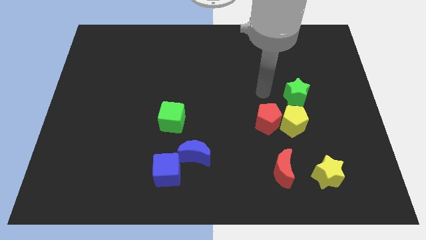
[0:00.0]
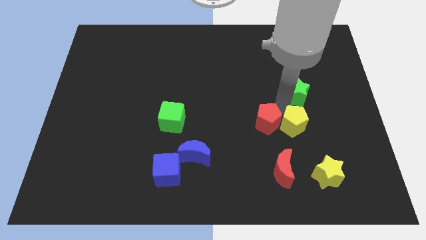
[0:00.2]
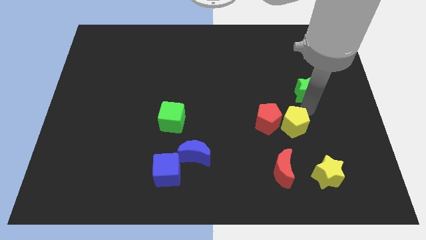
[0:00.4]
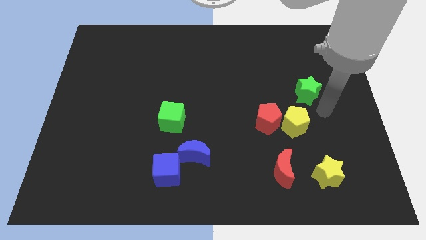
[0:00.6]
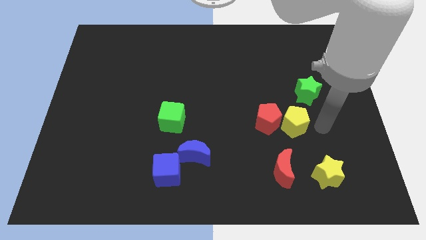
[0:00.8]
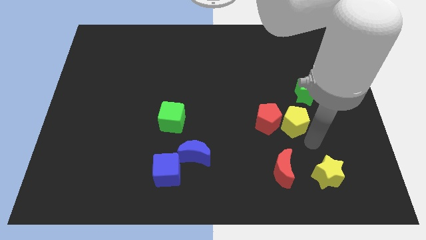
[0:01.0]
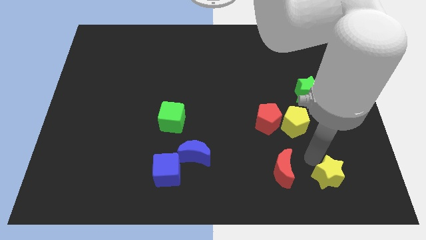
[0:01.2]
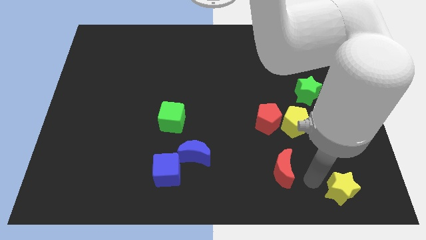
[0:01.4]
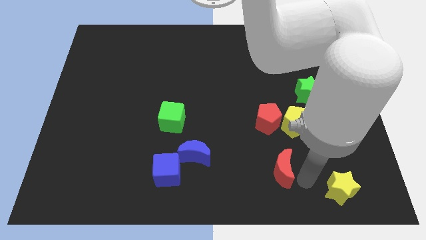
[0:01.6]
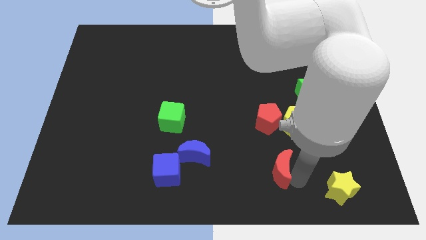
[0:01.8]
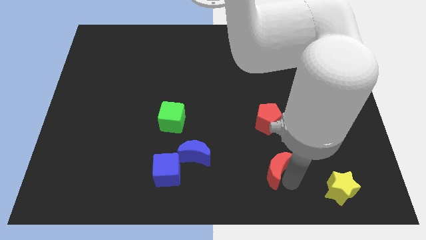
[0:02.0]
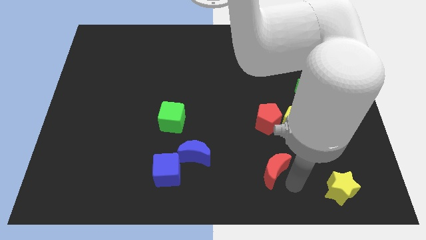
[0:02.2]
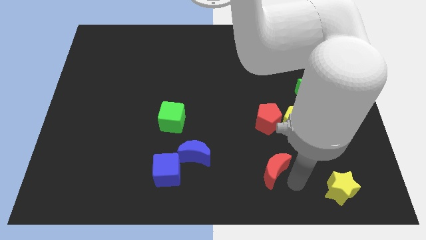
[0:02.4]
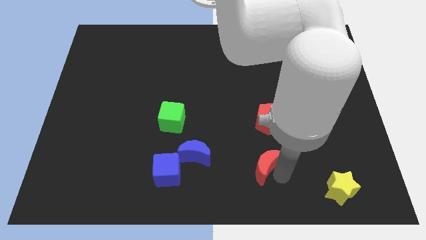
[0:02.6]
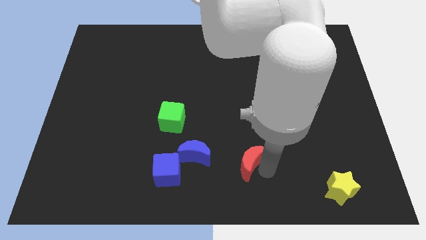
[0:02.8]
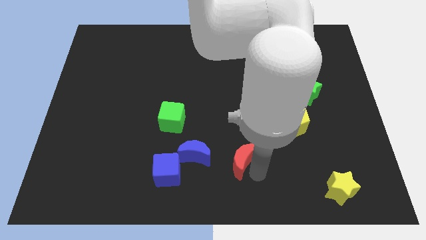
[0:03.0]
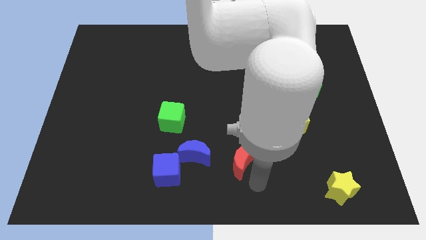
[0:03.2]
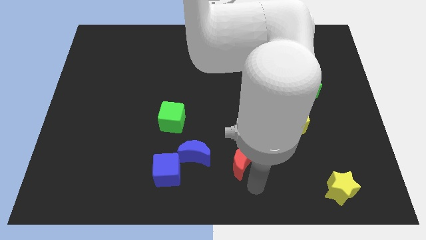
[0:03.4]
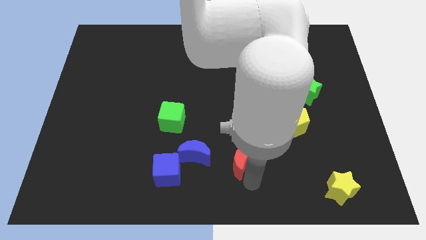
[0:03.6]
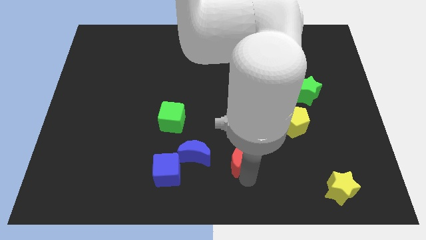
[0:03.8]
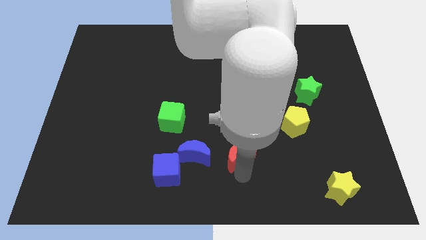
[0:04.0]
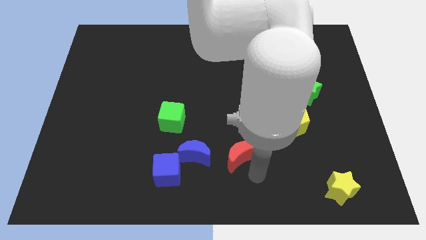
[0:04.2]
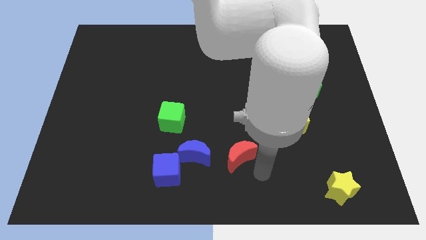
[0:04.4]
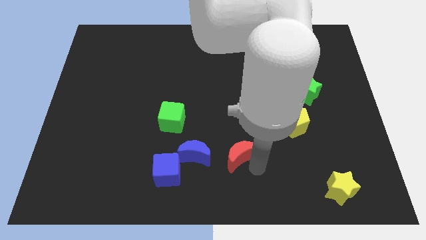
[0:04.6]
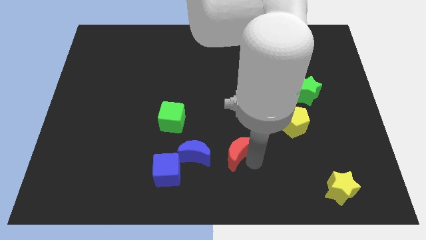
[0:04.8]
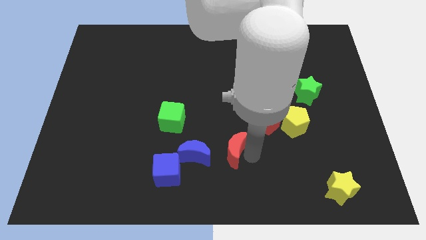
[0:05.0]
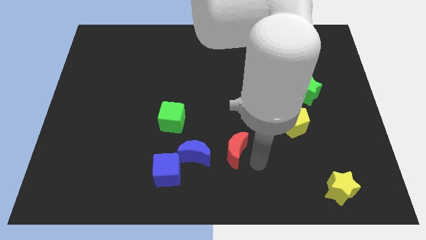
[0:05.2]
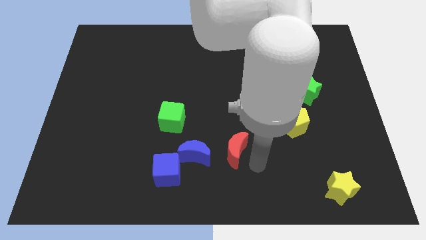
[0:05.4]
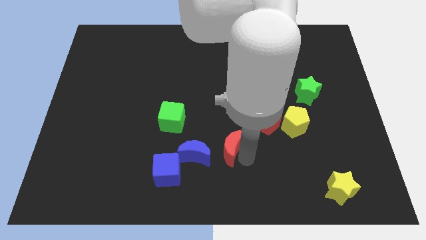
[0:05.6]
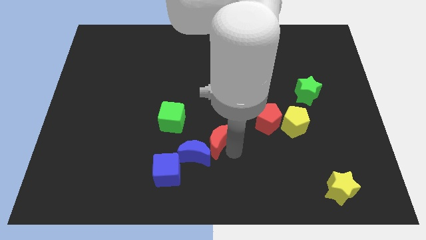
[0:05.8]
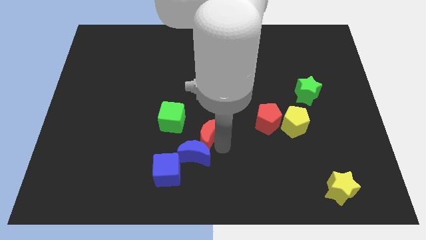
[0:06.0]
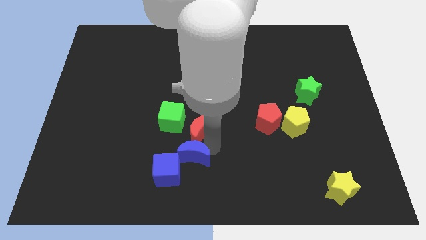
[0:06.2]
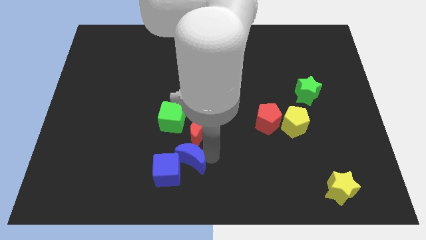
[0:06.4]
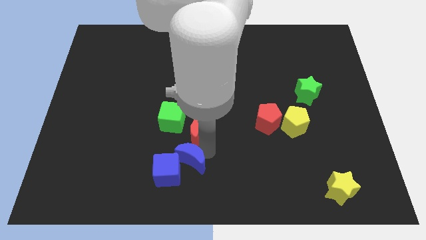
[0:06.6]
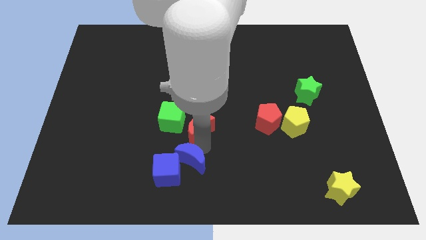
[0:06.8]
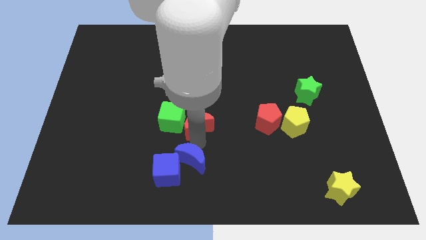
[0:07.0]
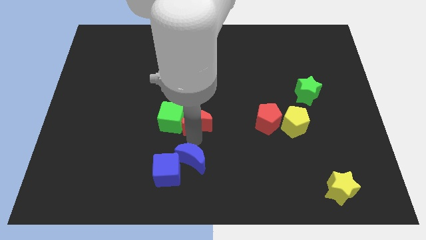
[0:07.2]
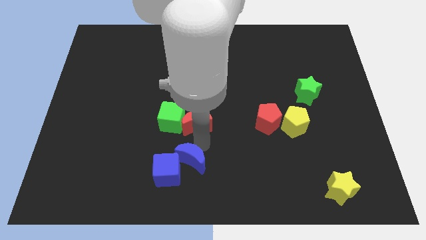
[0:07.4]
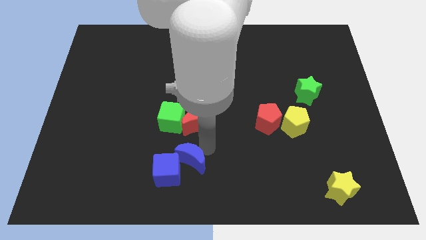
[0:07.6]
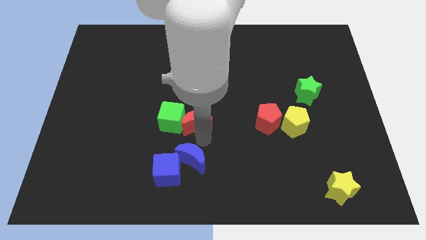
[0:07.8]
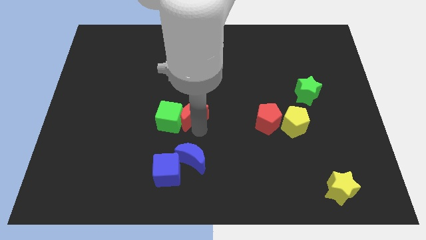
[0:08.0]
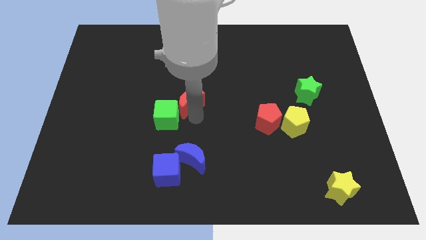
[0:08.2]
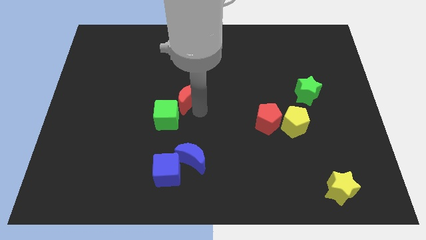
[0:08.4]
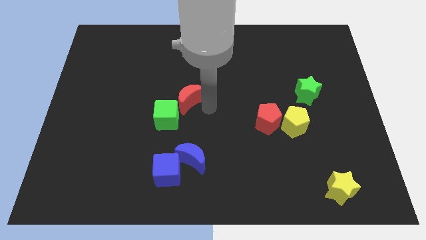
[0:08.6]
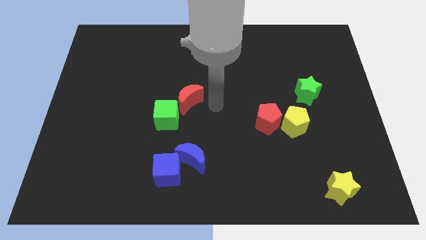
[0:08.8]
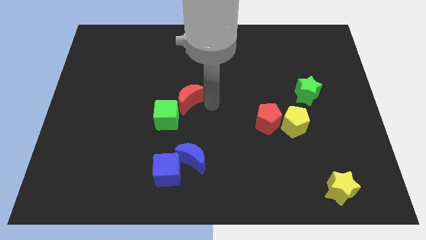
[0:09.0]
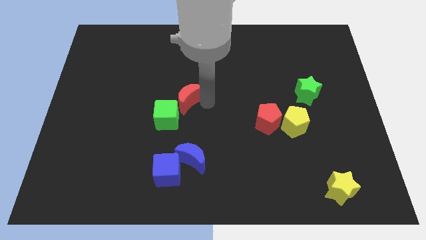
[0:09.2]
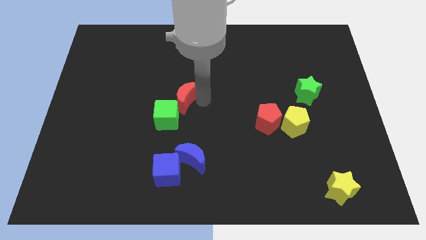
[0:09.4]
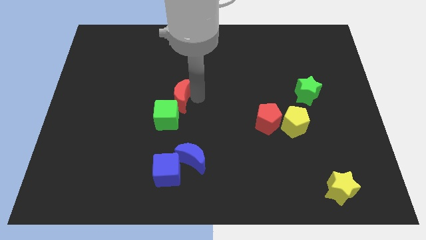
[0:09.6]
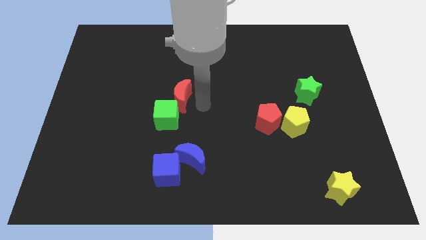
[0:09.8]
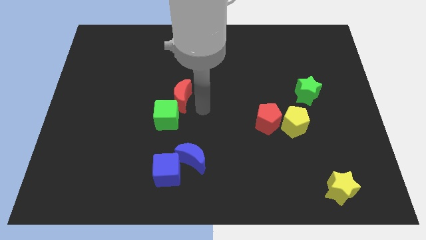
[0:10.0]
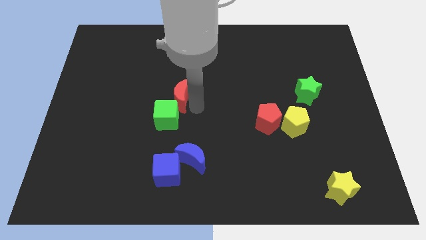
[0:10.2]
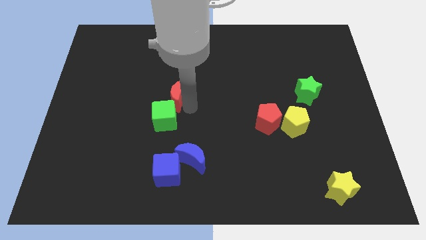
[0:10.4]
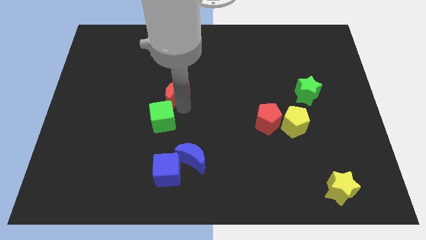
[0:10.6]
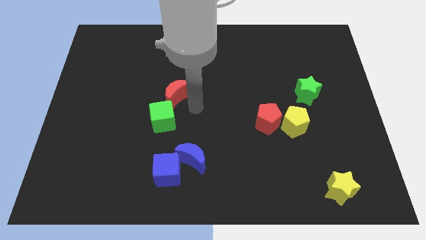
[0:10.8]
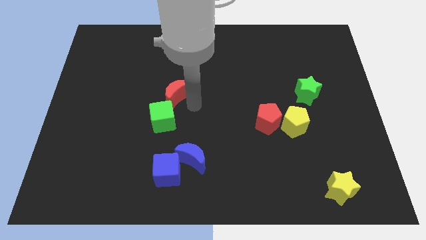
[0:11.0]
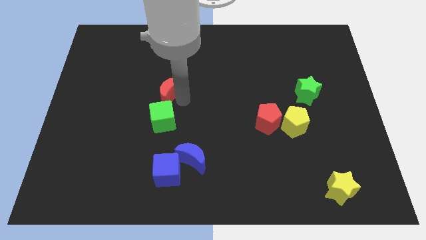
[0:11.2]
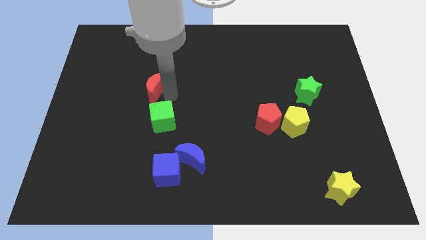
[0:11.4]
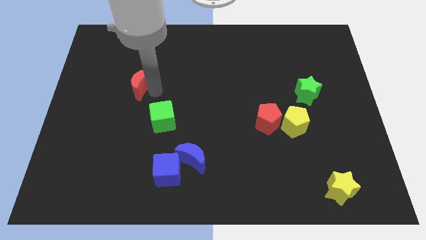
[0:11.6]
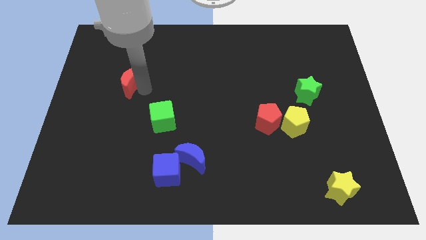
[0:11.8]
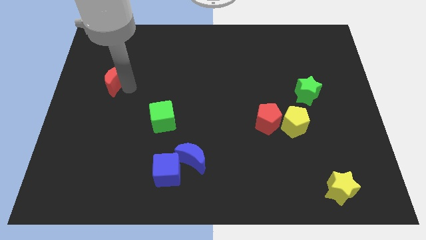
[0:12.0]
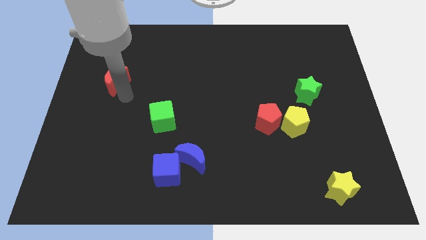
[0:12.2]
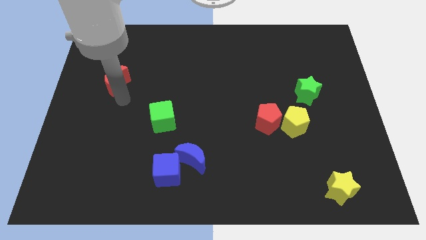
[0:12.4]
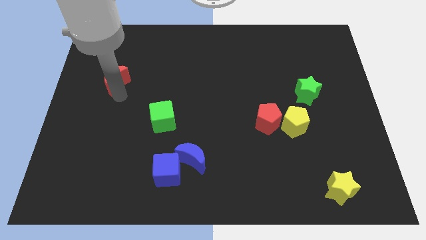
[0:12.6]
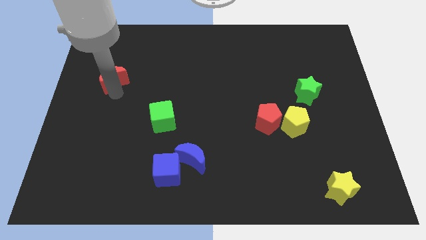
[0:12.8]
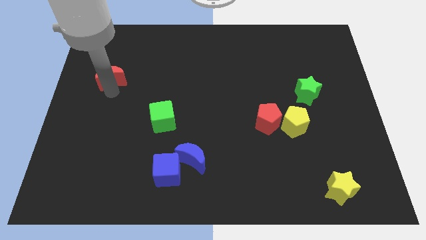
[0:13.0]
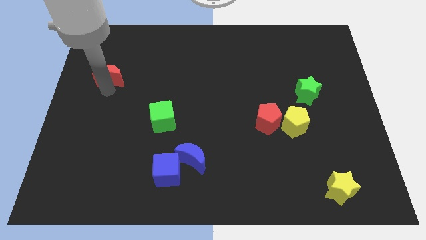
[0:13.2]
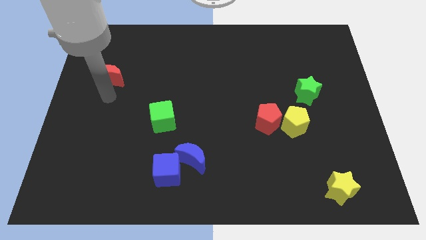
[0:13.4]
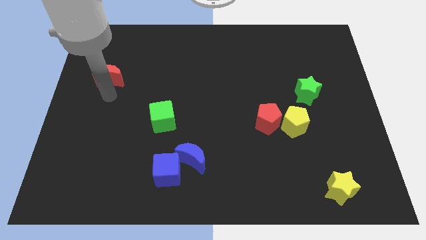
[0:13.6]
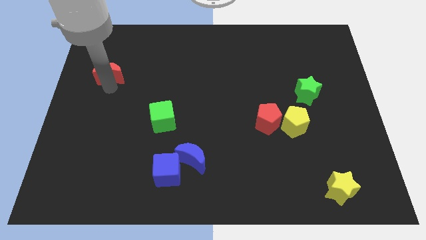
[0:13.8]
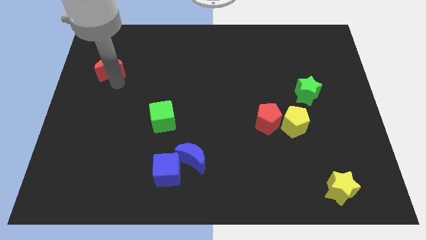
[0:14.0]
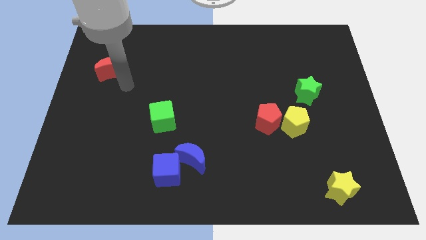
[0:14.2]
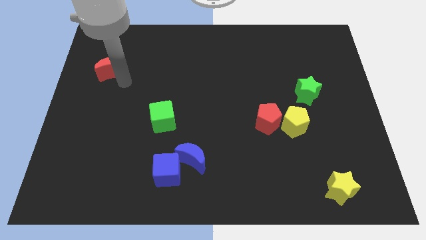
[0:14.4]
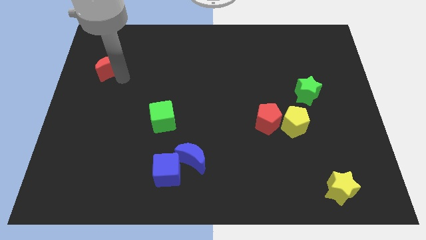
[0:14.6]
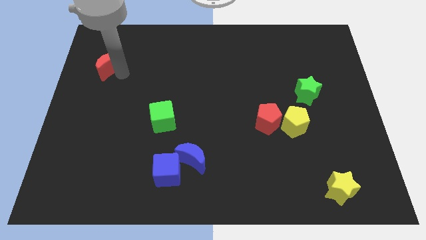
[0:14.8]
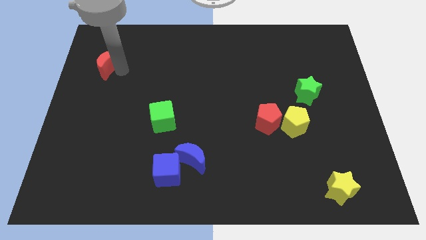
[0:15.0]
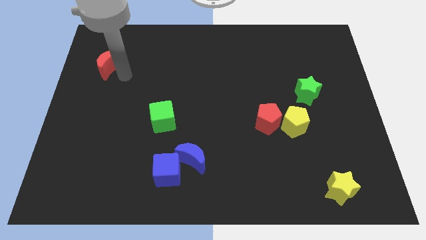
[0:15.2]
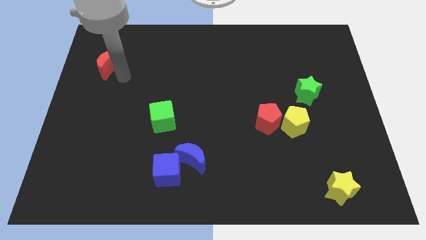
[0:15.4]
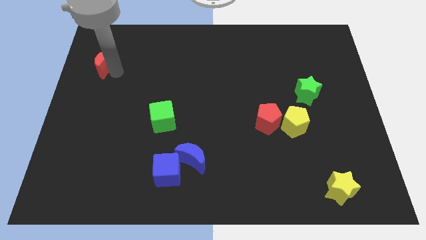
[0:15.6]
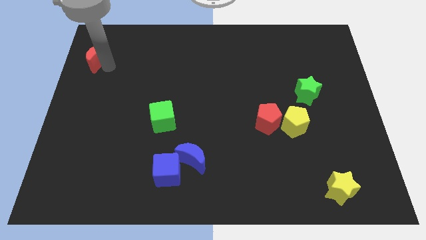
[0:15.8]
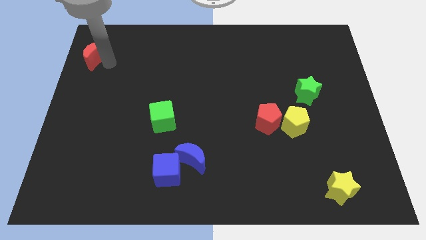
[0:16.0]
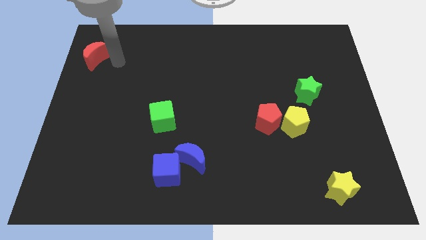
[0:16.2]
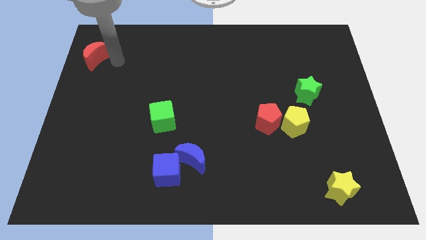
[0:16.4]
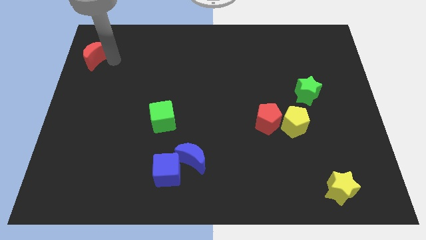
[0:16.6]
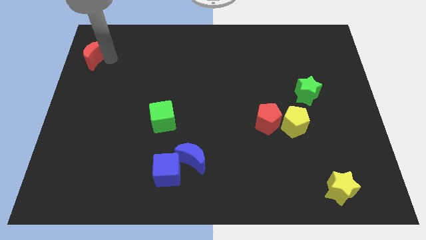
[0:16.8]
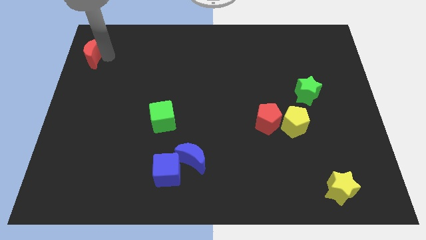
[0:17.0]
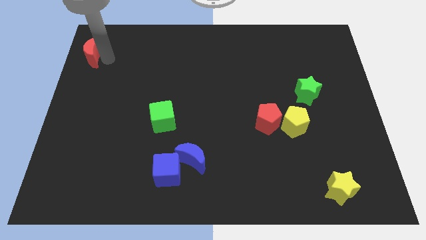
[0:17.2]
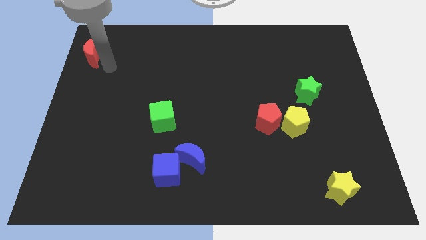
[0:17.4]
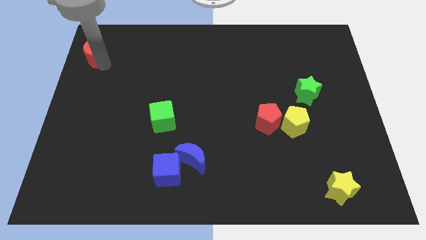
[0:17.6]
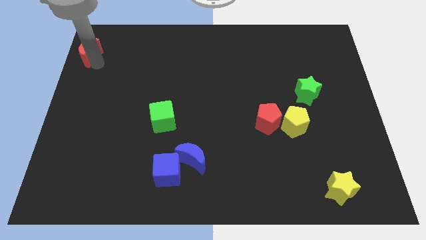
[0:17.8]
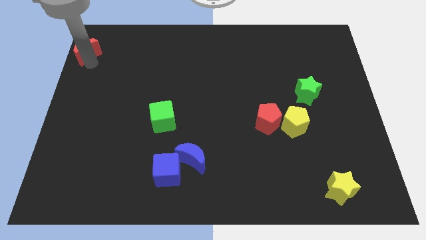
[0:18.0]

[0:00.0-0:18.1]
put the red moon to the top left
